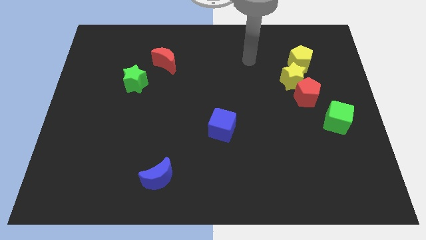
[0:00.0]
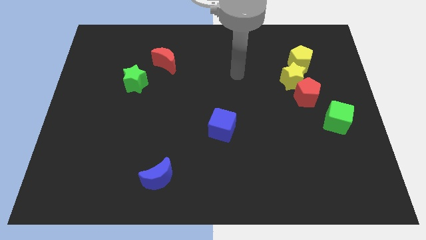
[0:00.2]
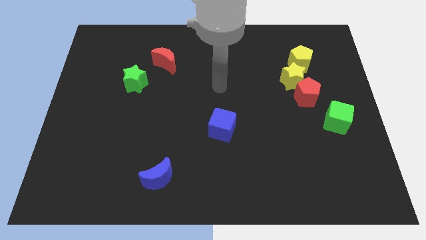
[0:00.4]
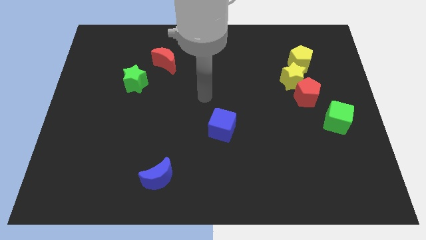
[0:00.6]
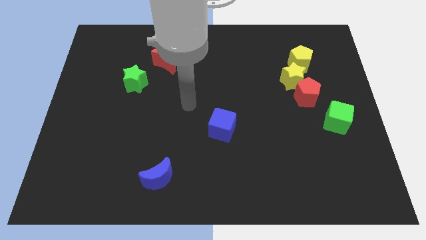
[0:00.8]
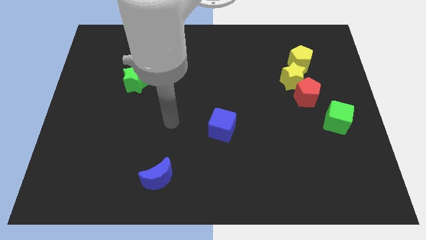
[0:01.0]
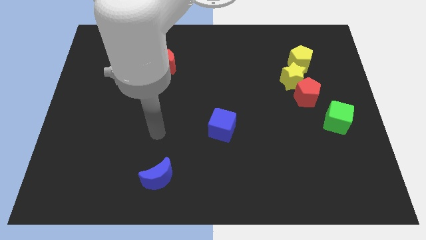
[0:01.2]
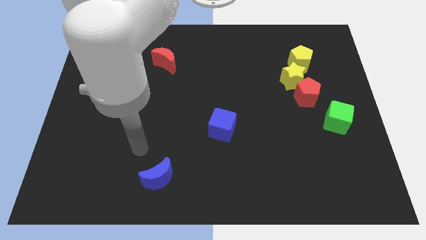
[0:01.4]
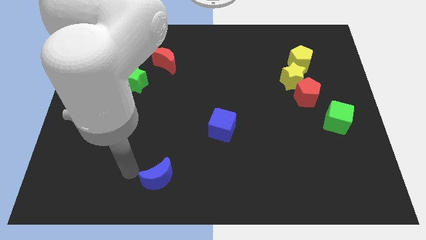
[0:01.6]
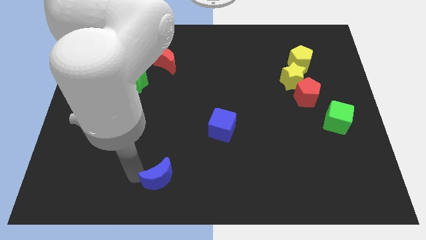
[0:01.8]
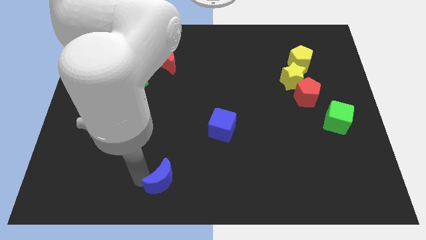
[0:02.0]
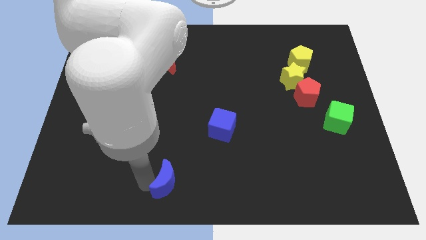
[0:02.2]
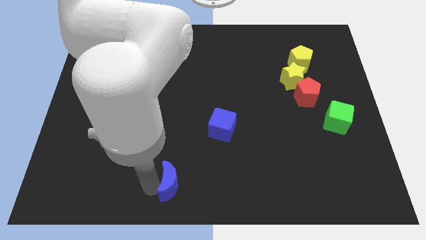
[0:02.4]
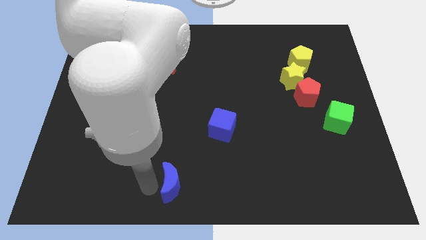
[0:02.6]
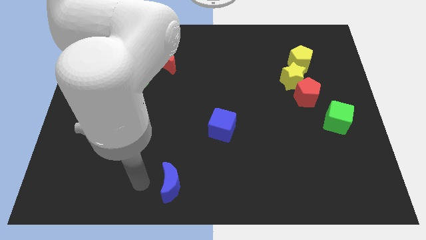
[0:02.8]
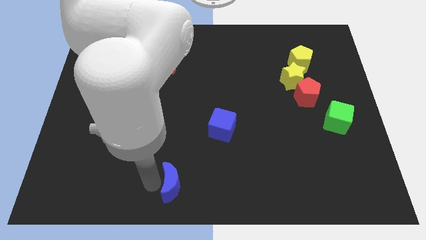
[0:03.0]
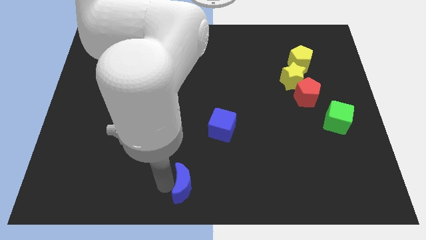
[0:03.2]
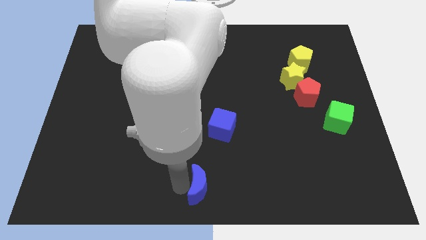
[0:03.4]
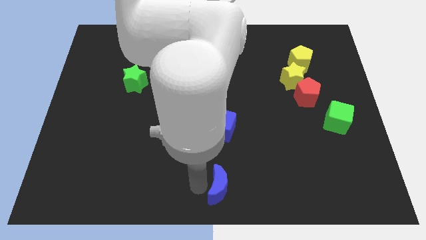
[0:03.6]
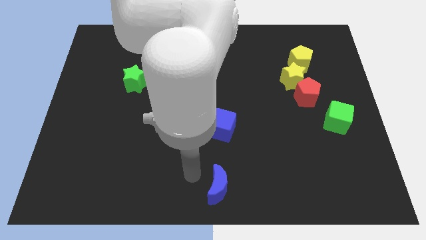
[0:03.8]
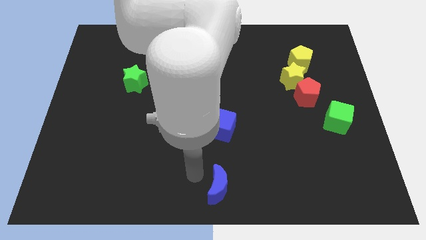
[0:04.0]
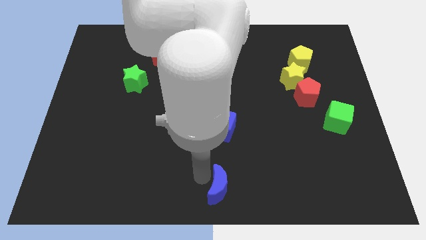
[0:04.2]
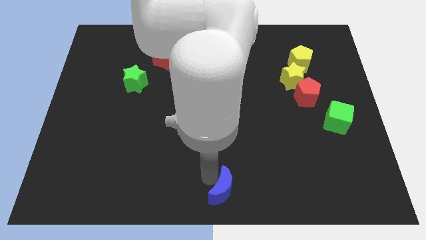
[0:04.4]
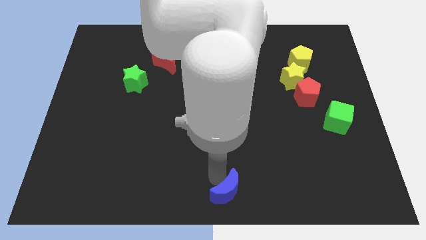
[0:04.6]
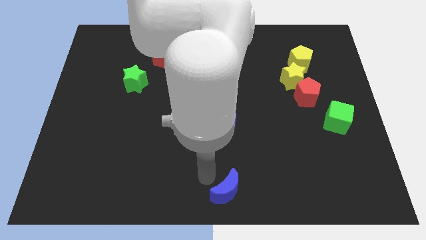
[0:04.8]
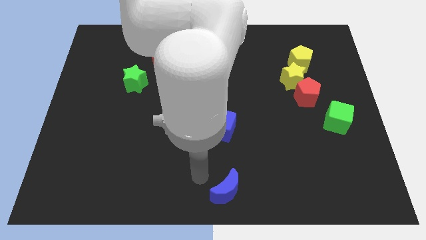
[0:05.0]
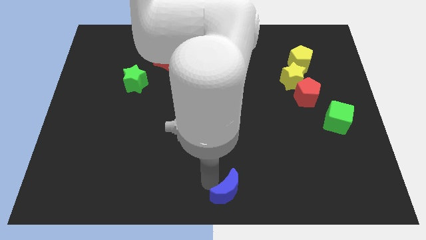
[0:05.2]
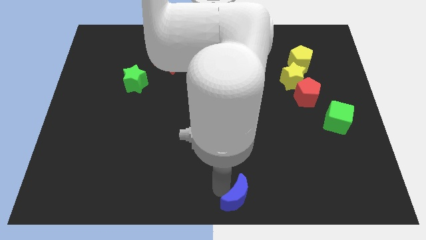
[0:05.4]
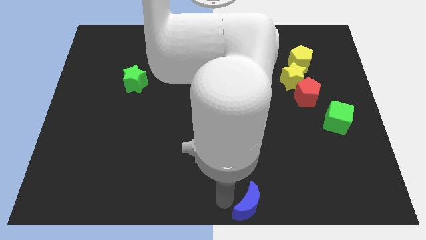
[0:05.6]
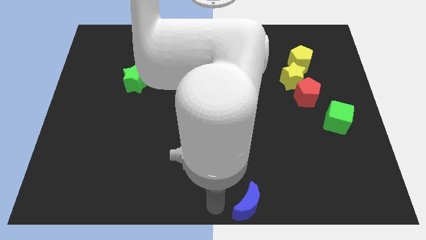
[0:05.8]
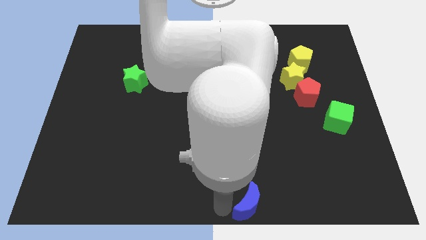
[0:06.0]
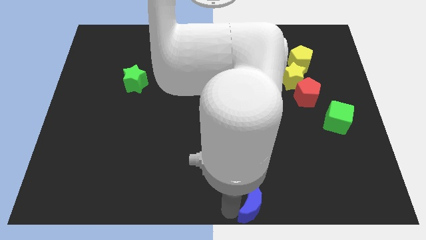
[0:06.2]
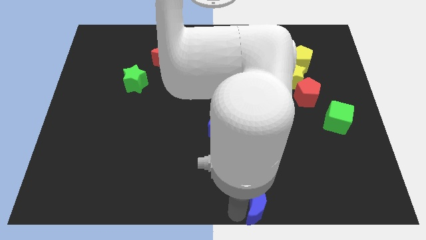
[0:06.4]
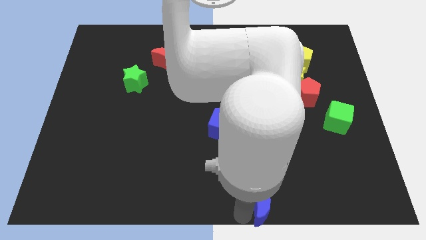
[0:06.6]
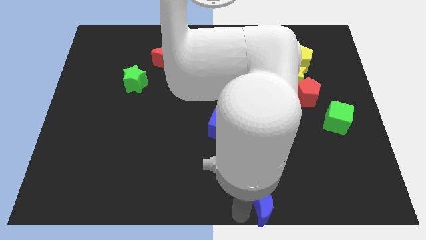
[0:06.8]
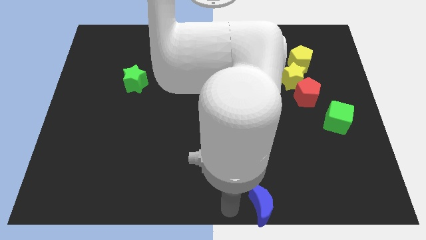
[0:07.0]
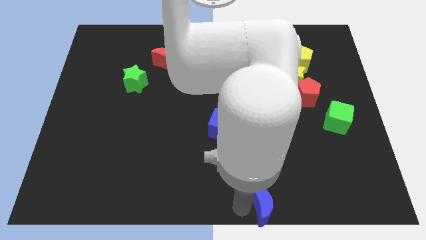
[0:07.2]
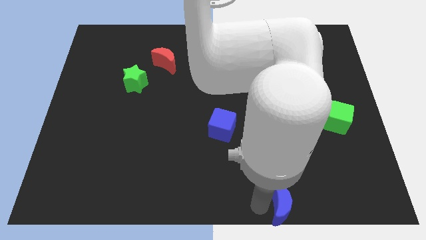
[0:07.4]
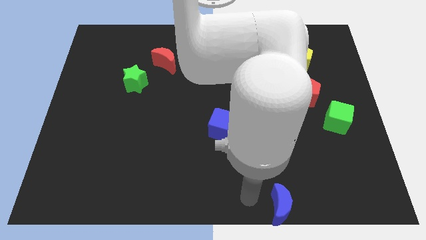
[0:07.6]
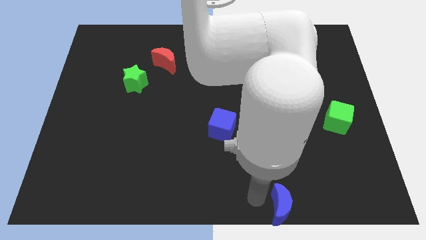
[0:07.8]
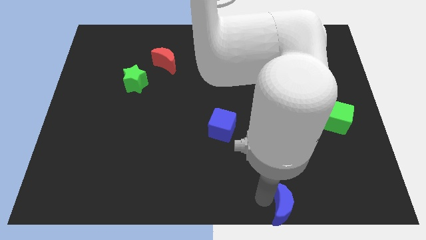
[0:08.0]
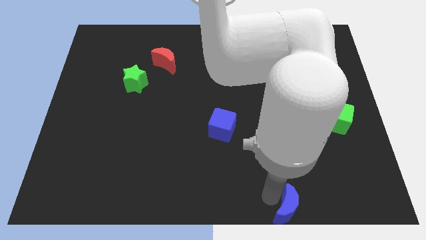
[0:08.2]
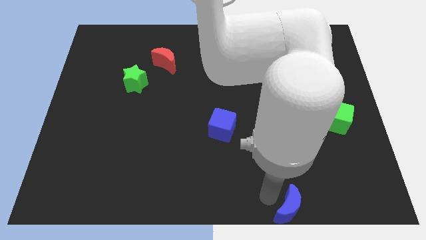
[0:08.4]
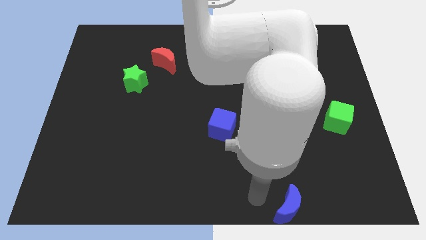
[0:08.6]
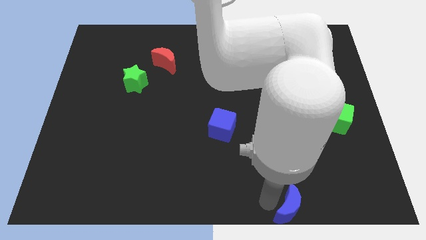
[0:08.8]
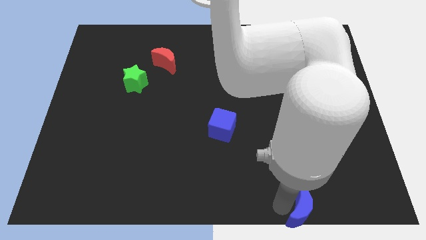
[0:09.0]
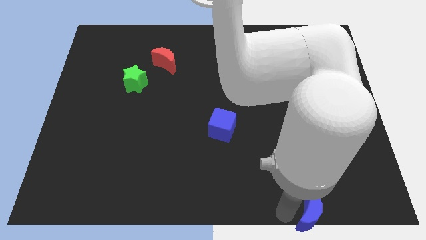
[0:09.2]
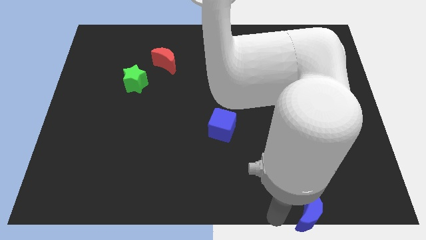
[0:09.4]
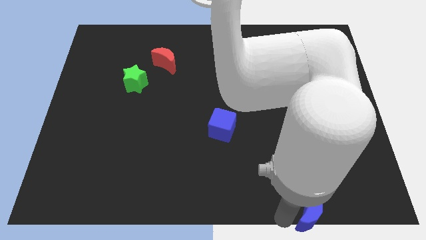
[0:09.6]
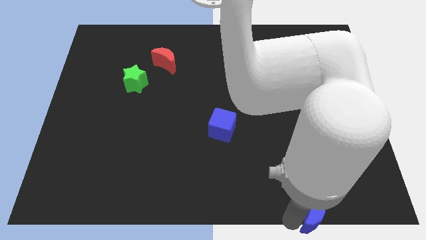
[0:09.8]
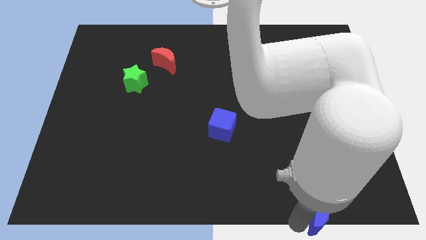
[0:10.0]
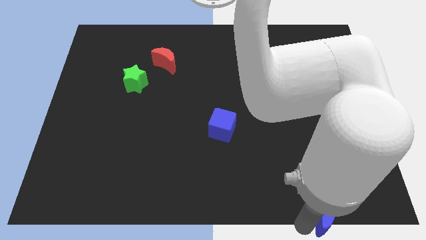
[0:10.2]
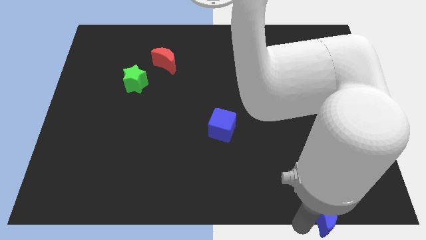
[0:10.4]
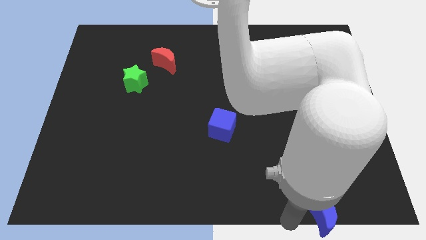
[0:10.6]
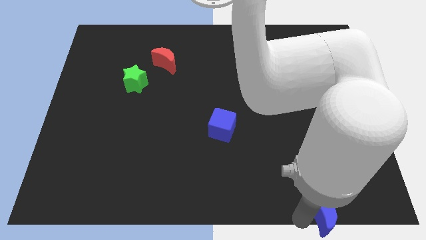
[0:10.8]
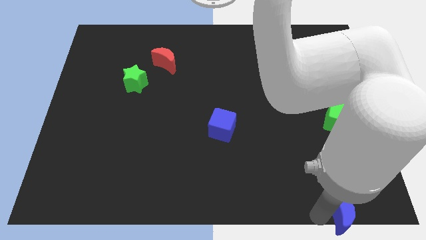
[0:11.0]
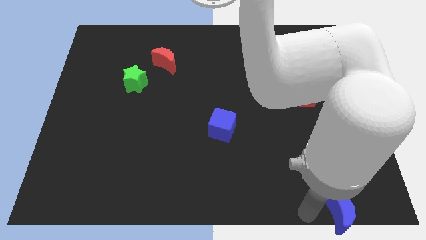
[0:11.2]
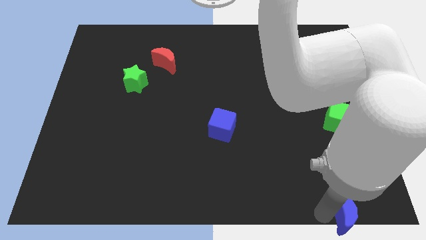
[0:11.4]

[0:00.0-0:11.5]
slide the blue moon to the bottom right of the board

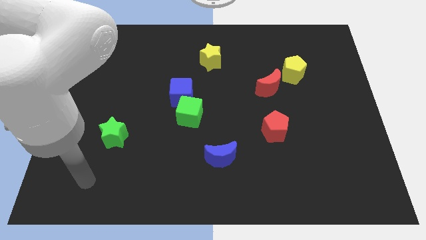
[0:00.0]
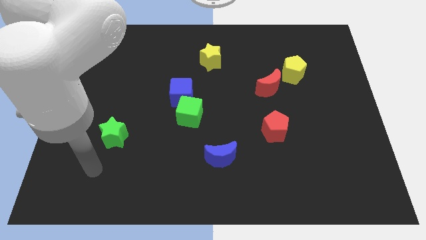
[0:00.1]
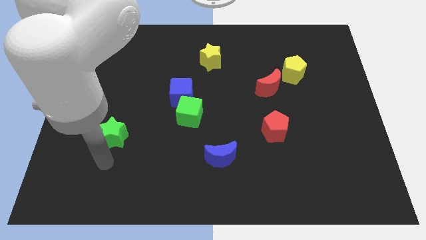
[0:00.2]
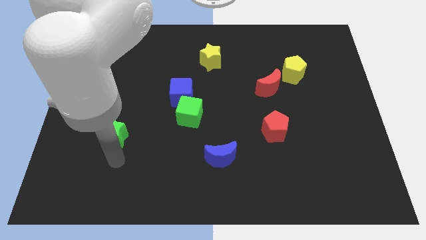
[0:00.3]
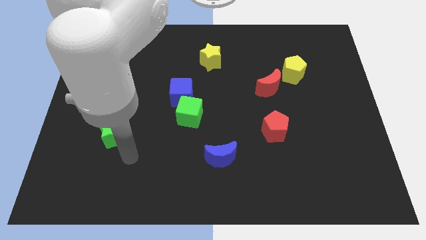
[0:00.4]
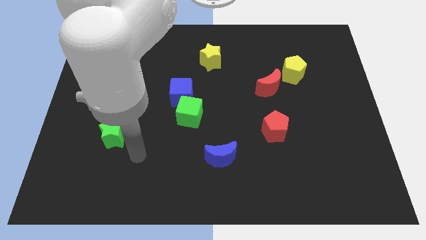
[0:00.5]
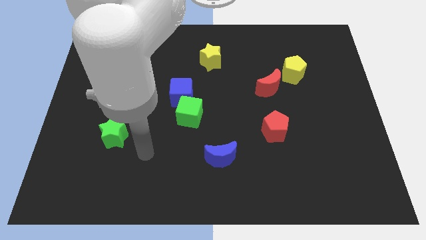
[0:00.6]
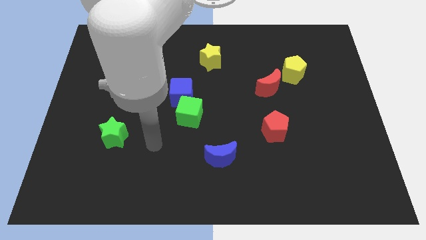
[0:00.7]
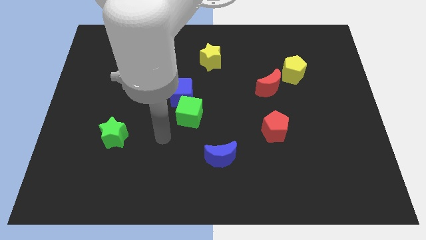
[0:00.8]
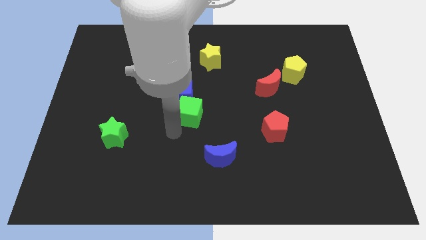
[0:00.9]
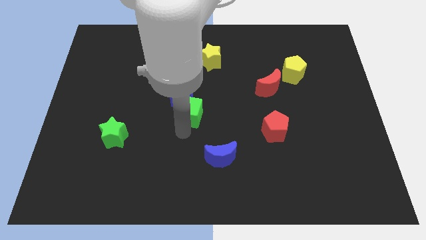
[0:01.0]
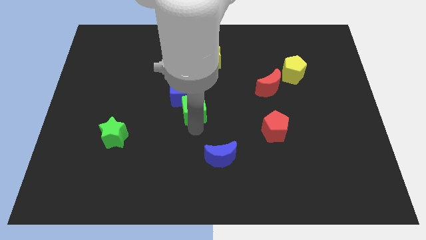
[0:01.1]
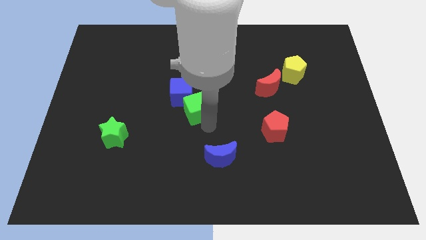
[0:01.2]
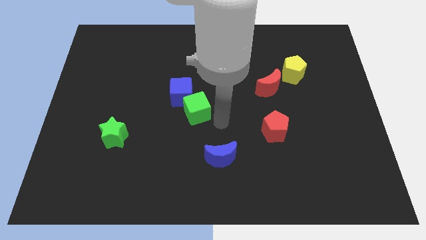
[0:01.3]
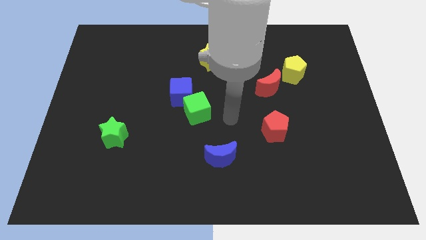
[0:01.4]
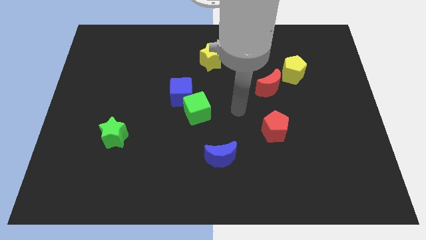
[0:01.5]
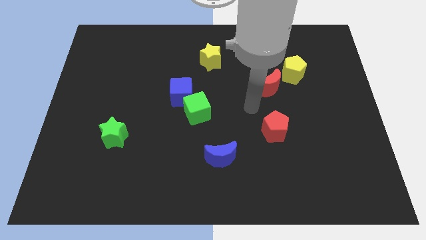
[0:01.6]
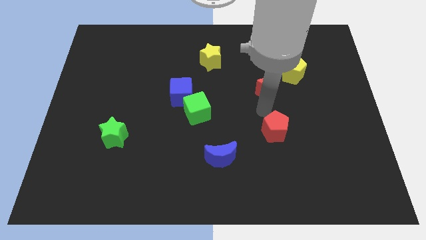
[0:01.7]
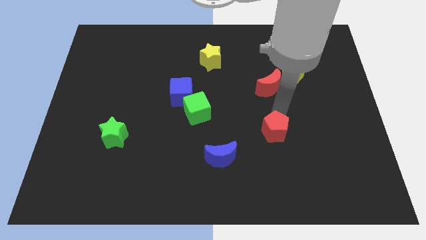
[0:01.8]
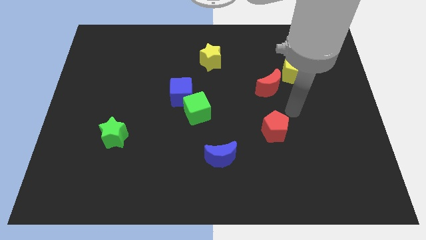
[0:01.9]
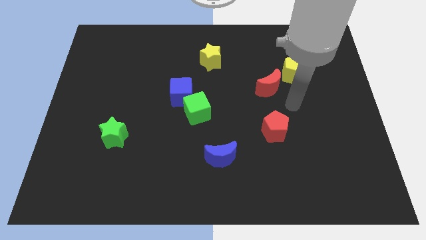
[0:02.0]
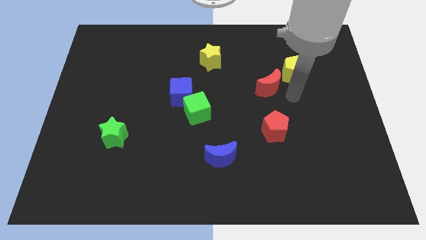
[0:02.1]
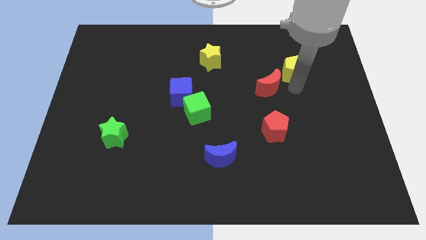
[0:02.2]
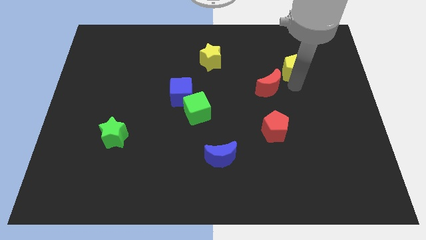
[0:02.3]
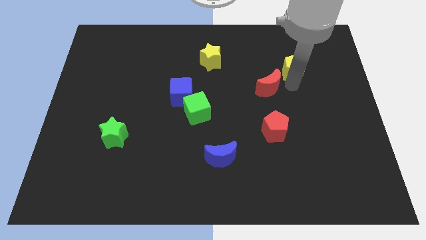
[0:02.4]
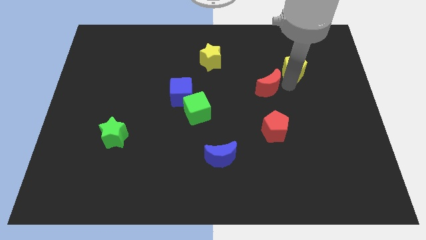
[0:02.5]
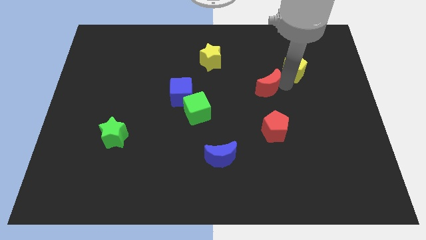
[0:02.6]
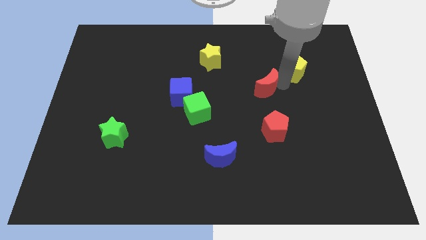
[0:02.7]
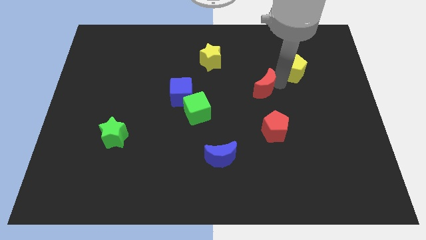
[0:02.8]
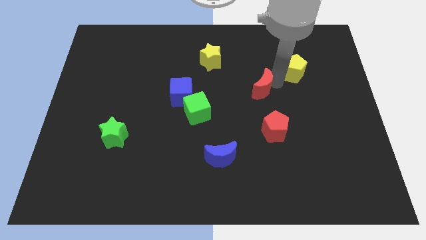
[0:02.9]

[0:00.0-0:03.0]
slide the red moon to the middle of the board
